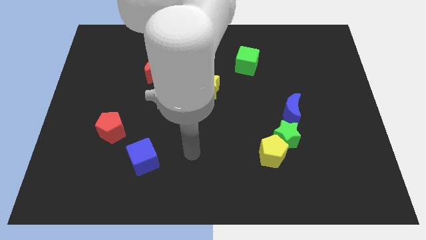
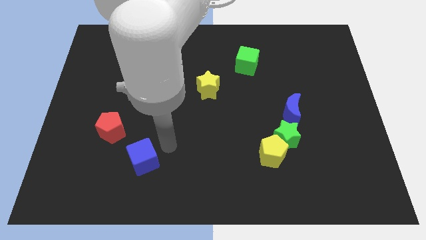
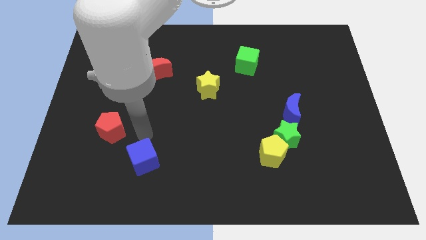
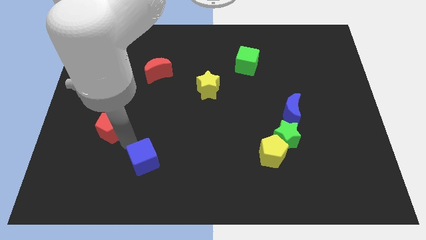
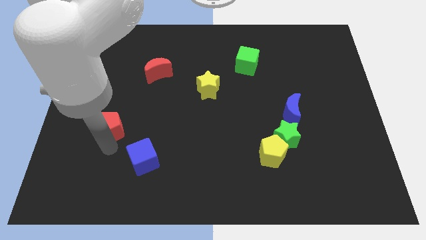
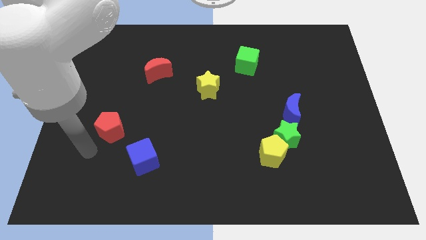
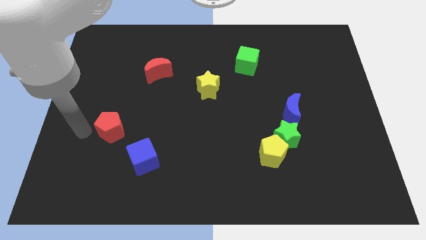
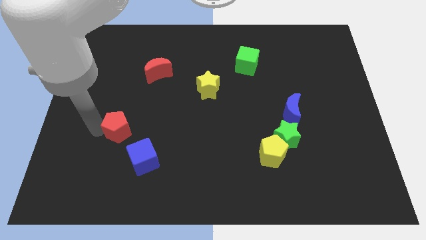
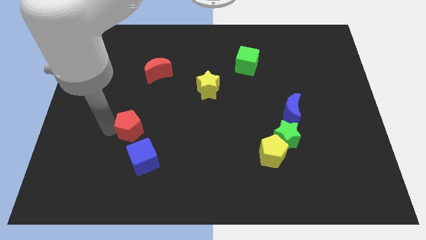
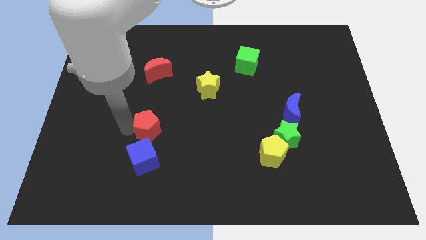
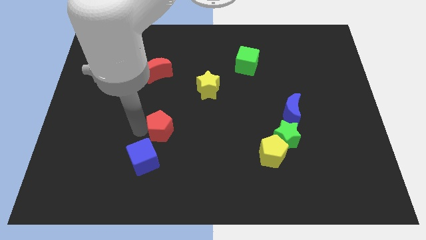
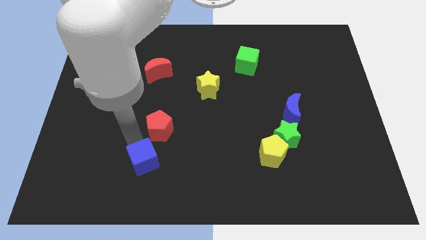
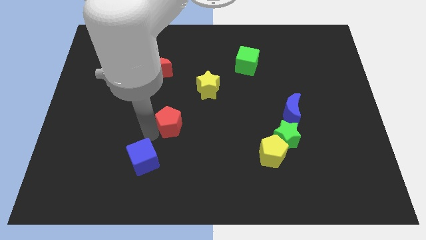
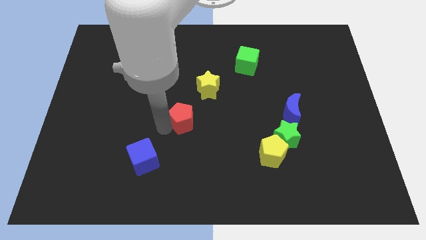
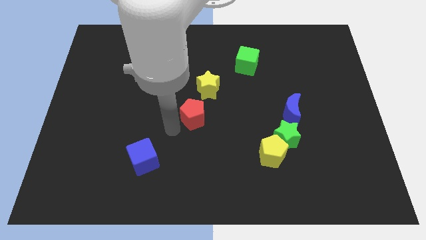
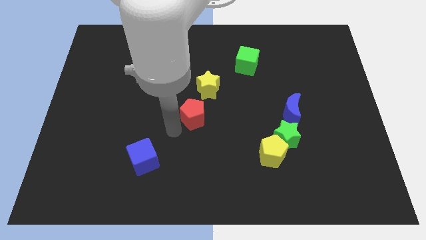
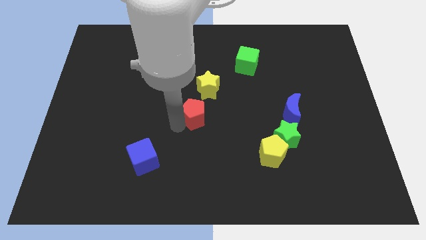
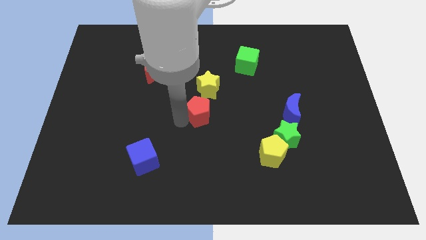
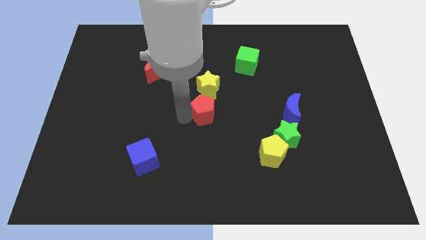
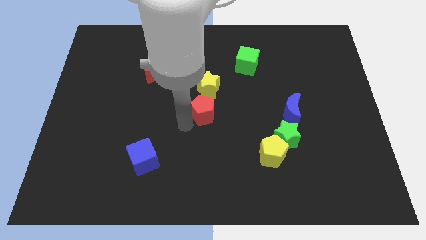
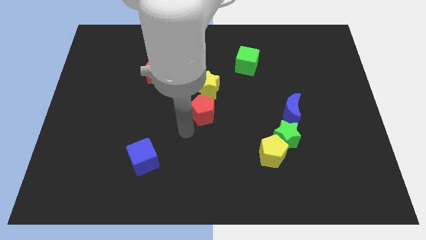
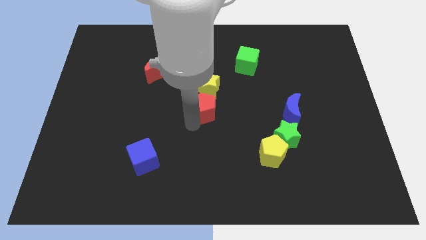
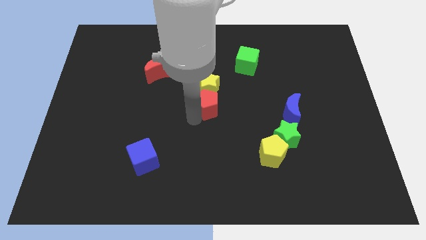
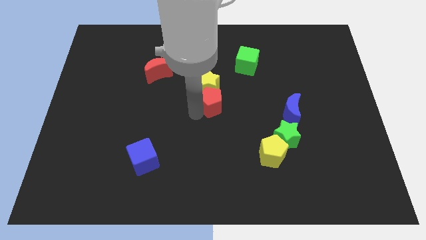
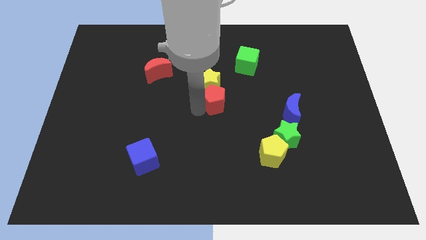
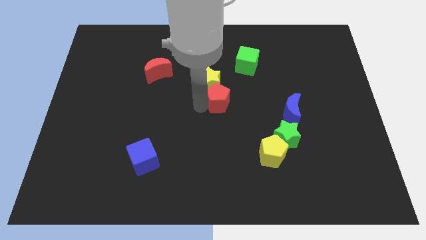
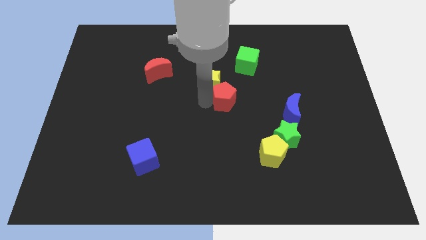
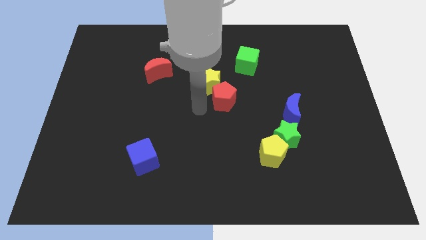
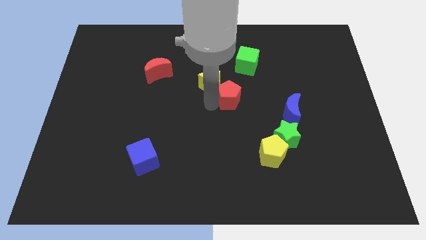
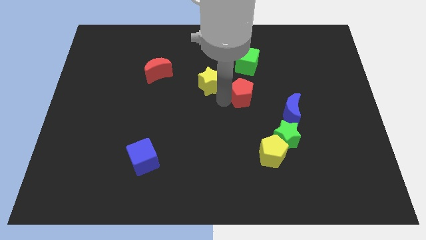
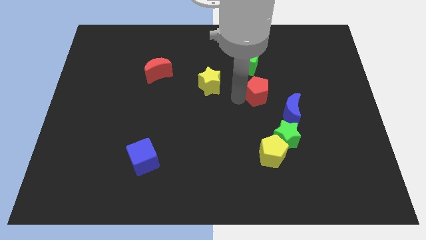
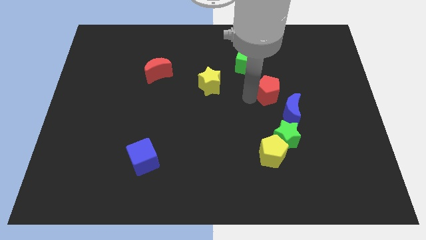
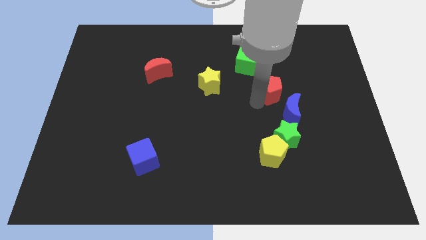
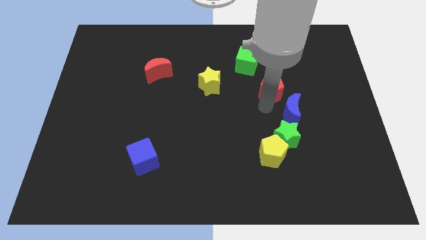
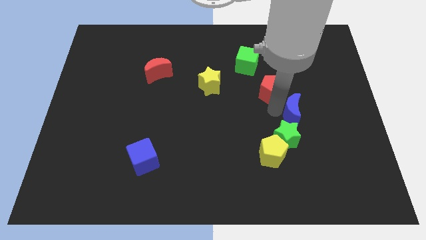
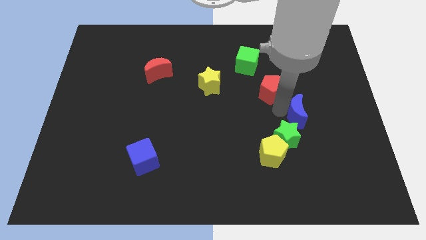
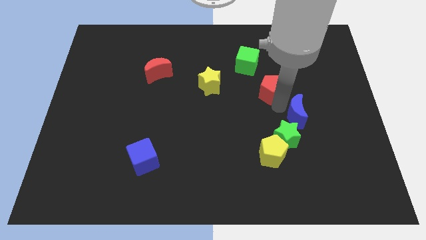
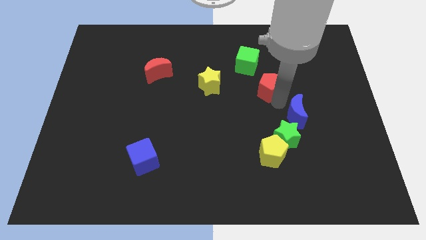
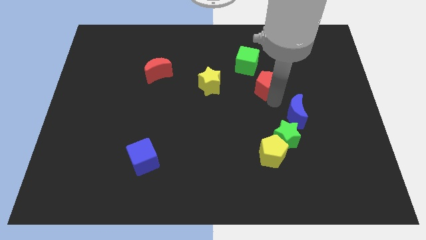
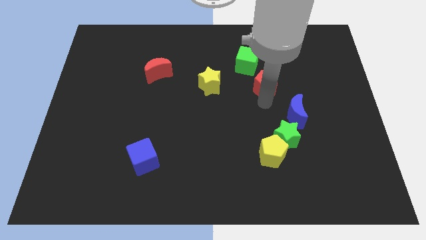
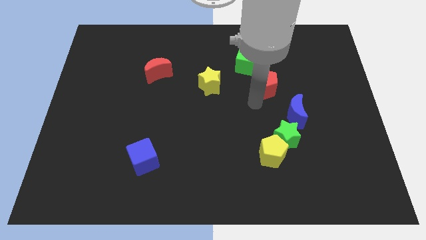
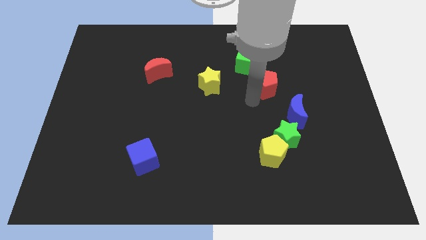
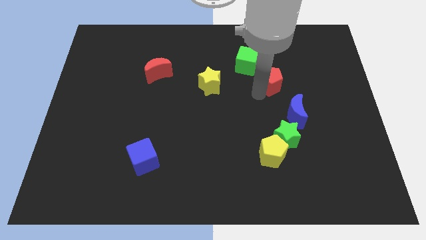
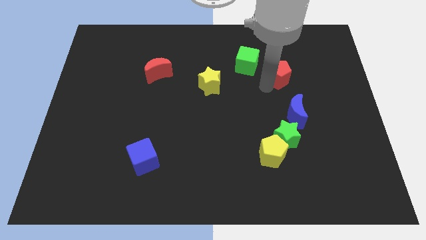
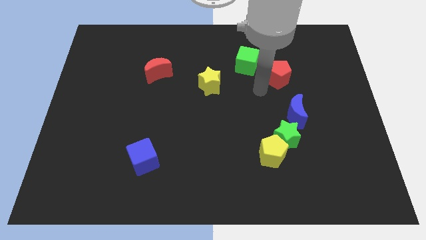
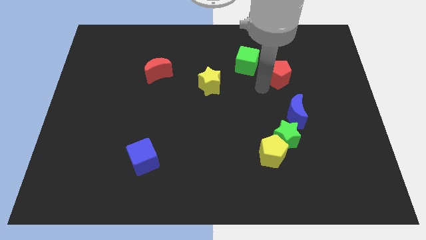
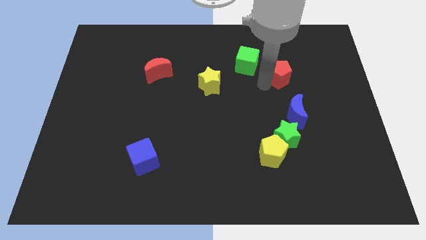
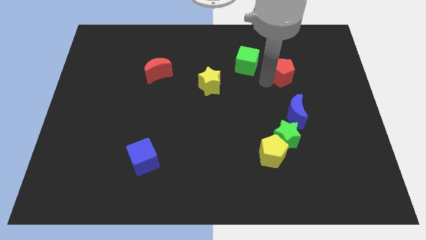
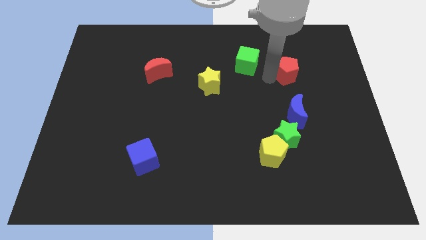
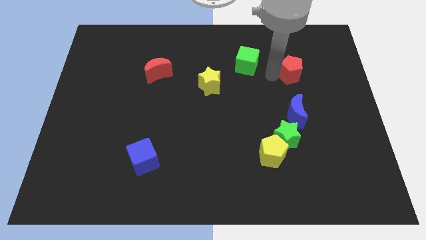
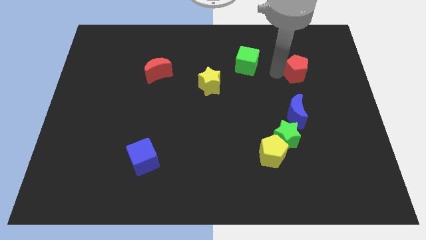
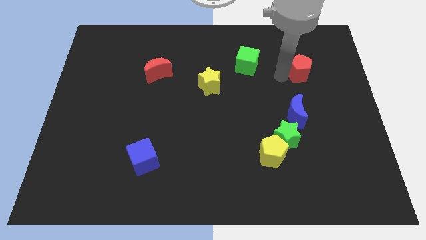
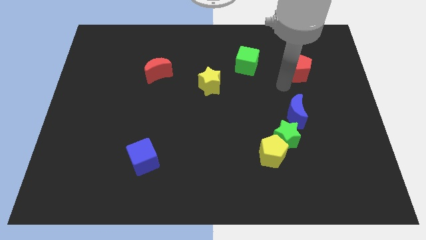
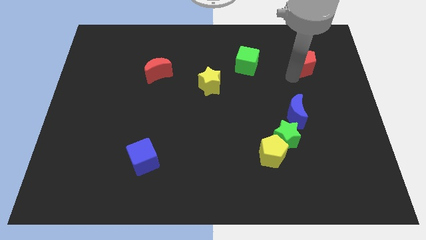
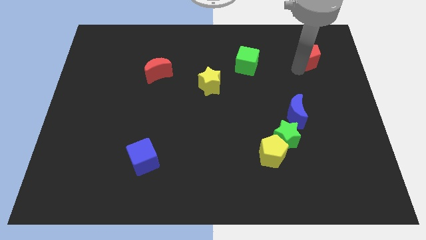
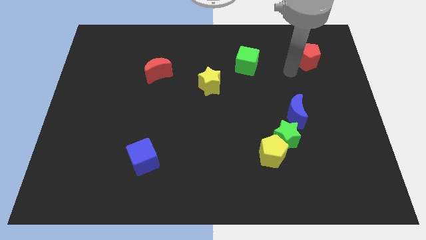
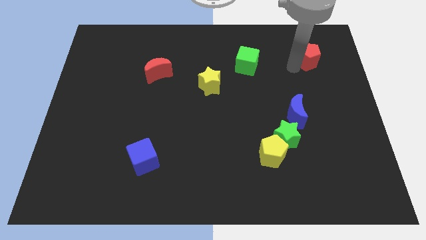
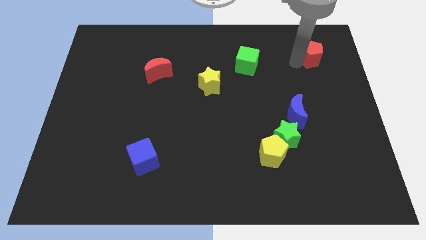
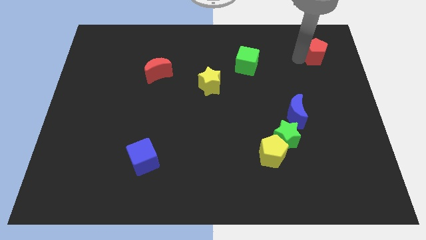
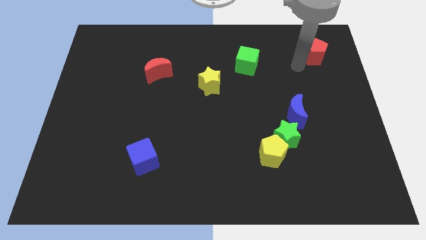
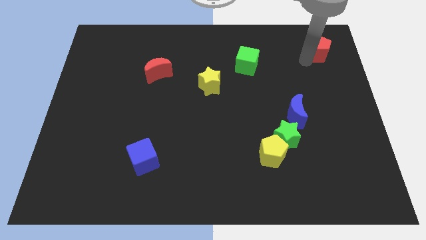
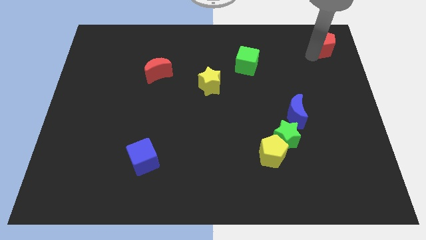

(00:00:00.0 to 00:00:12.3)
slide the red pentagon to the top right of the board

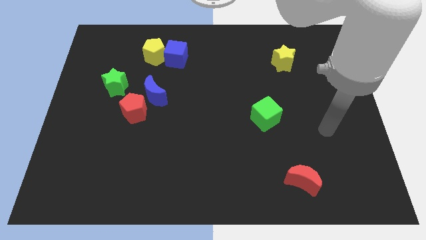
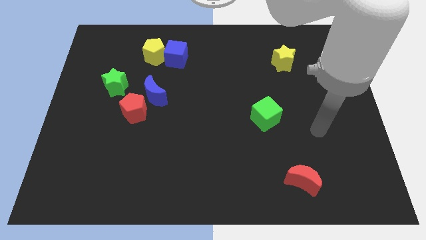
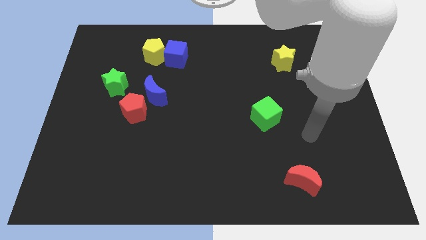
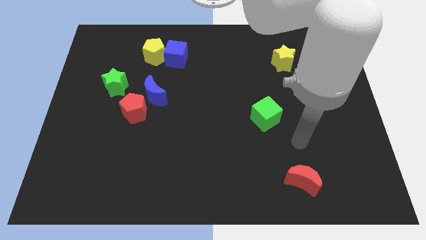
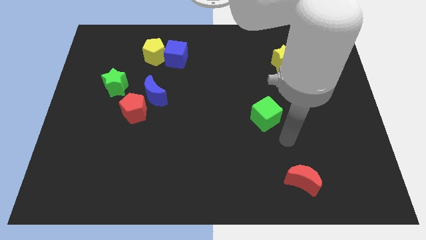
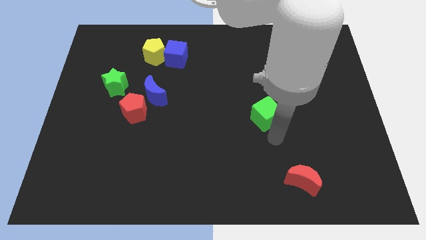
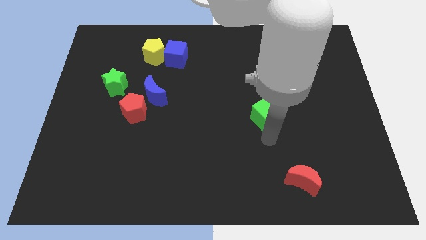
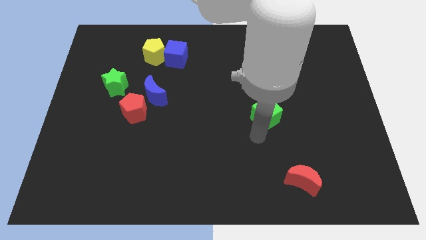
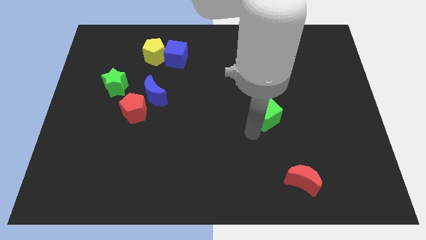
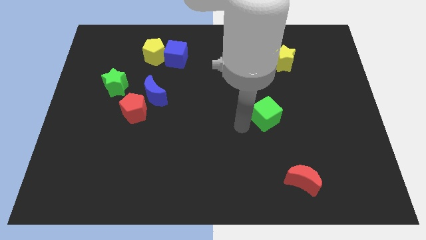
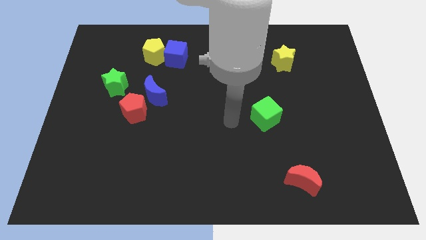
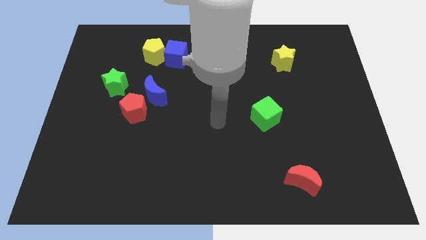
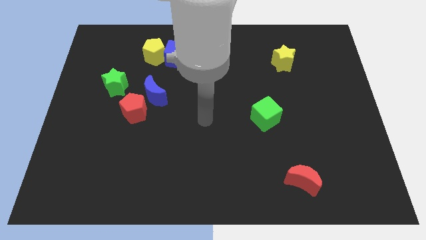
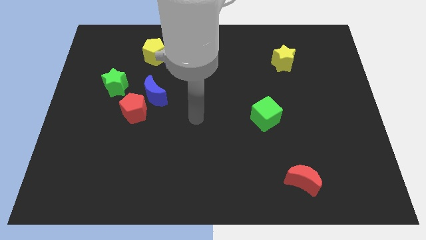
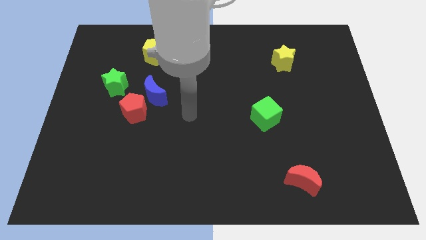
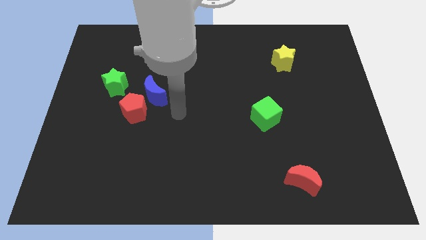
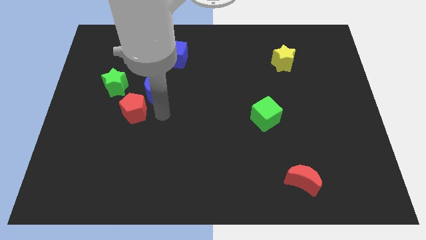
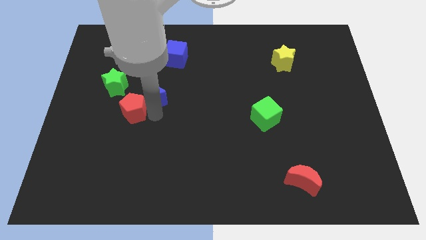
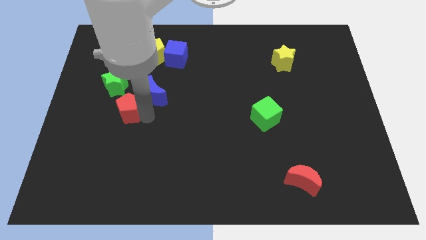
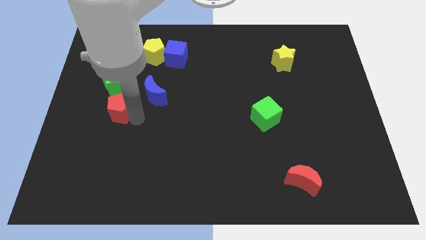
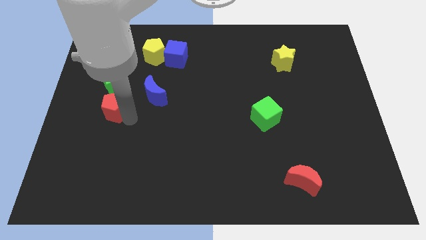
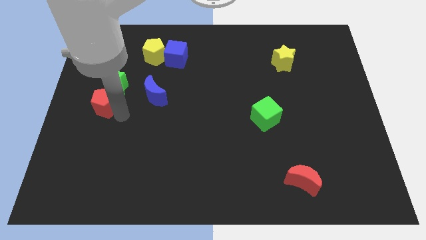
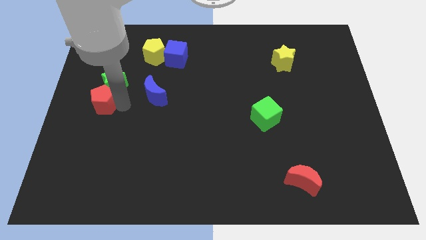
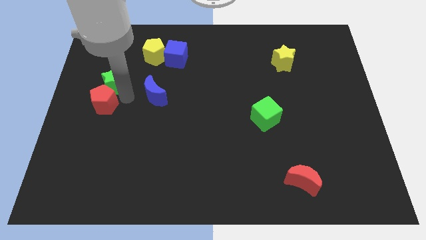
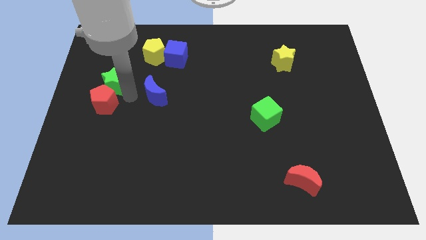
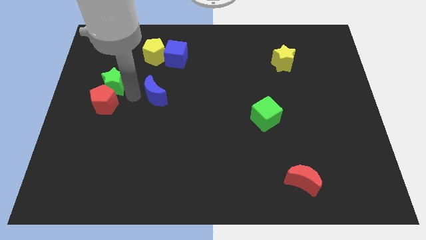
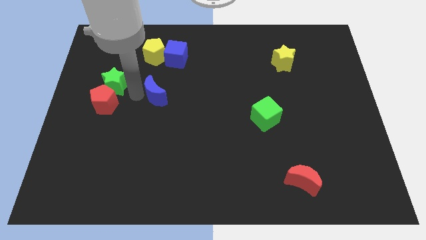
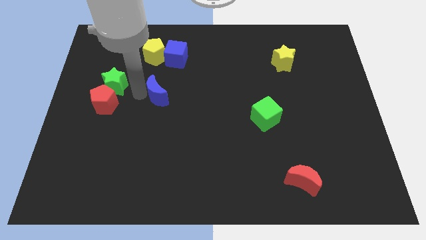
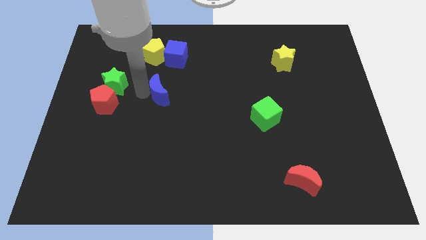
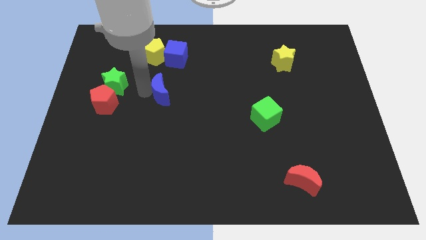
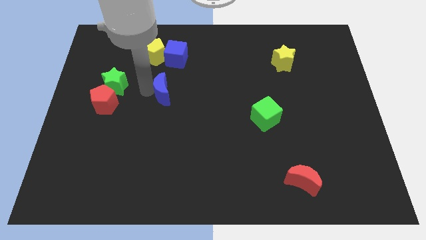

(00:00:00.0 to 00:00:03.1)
put the blue moon to the center of the board
